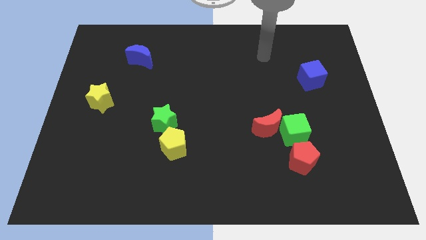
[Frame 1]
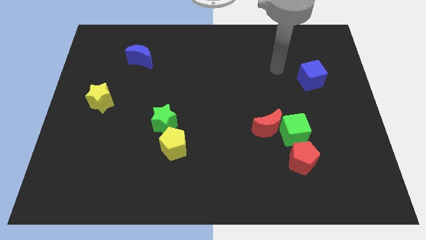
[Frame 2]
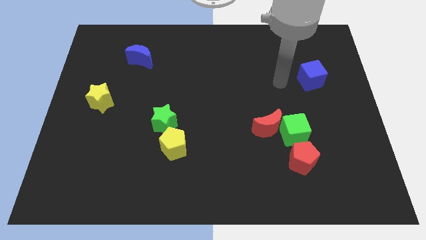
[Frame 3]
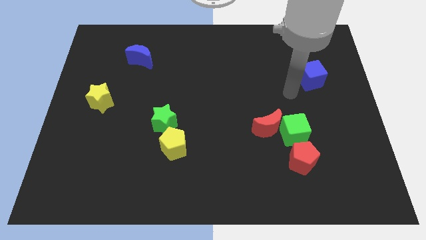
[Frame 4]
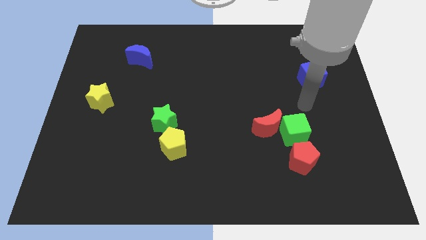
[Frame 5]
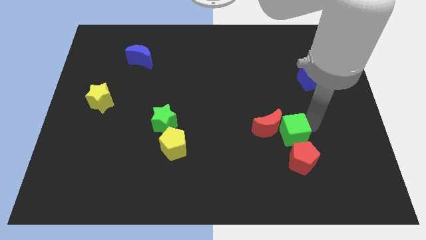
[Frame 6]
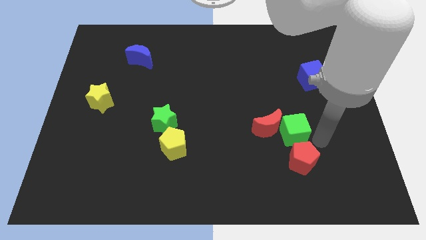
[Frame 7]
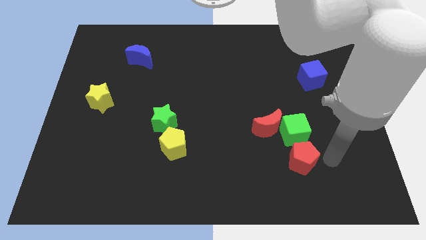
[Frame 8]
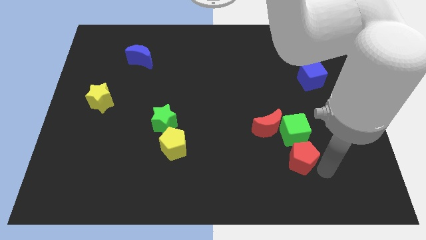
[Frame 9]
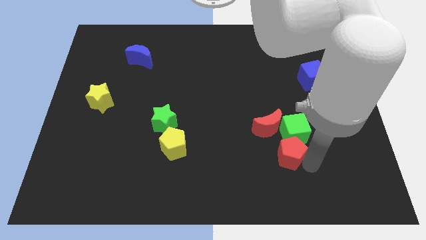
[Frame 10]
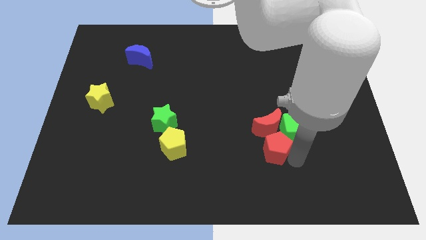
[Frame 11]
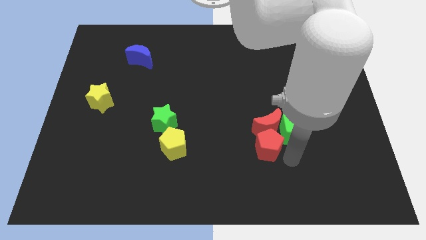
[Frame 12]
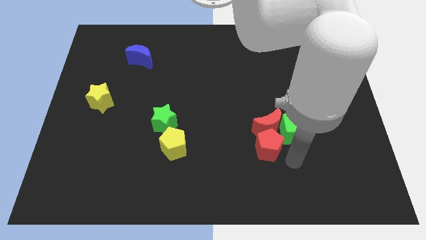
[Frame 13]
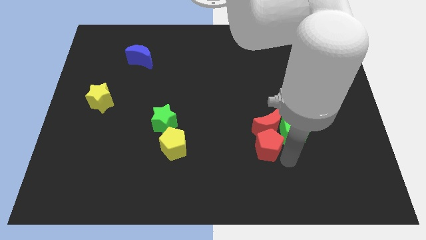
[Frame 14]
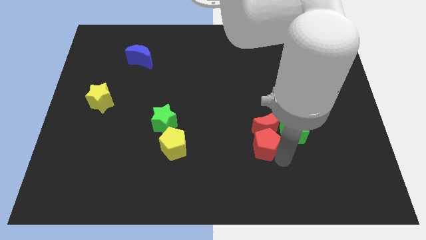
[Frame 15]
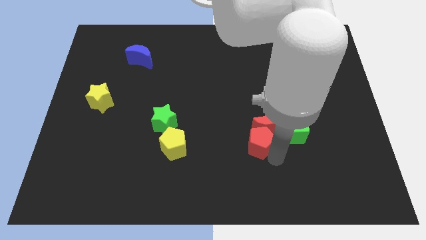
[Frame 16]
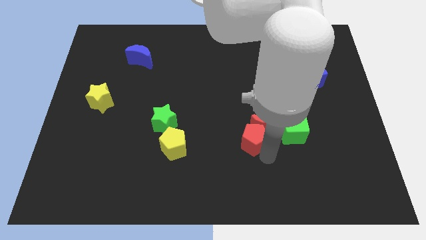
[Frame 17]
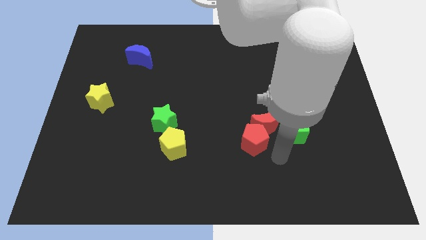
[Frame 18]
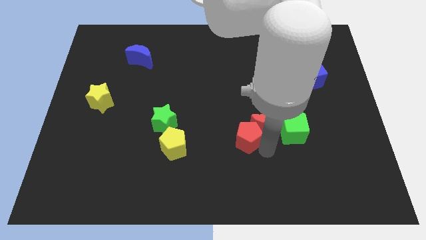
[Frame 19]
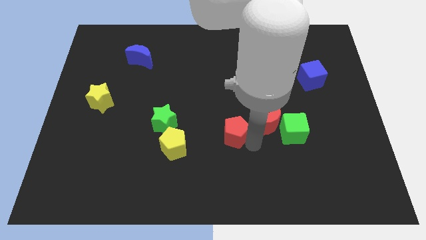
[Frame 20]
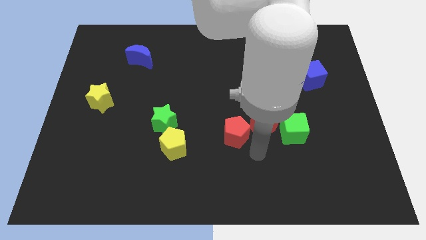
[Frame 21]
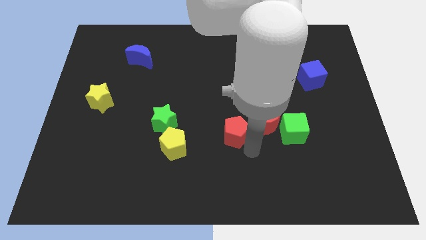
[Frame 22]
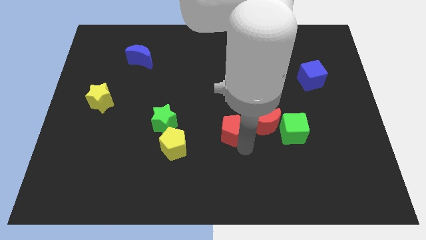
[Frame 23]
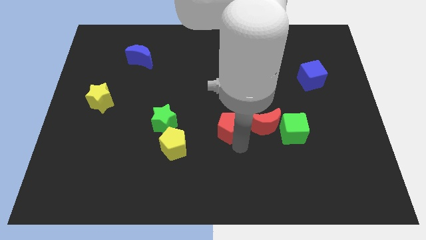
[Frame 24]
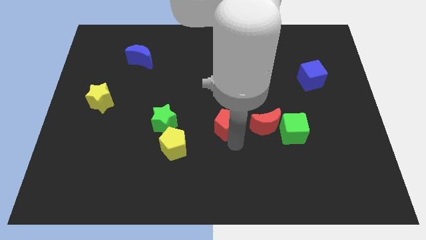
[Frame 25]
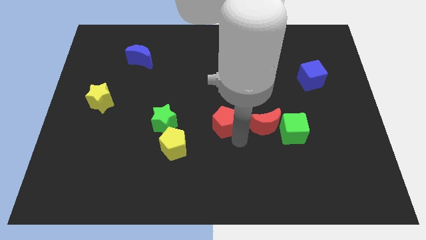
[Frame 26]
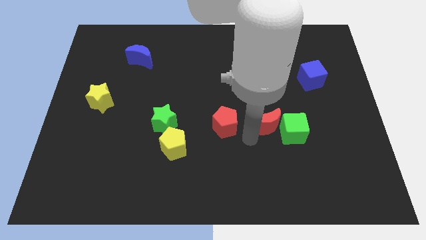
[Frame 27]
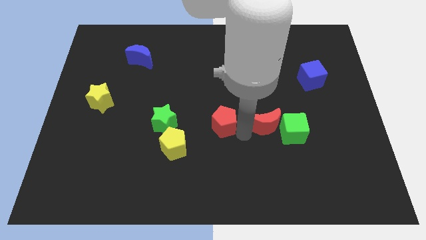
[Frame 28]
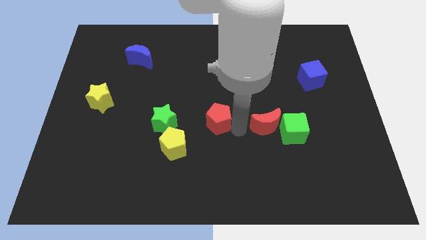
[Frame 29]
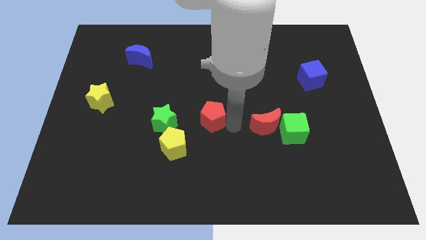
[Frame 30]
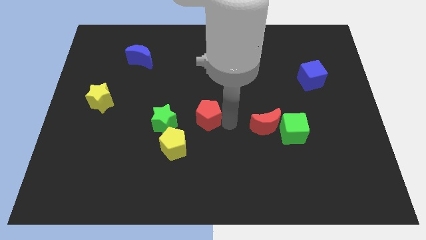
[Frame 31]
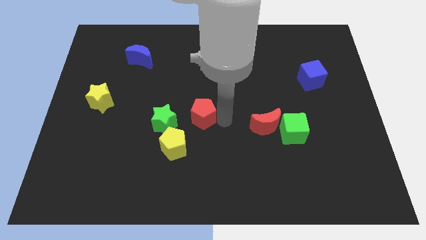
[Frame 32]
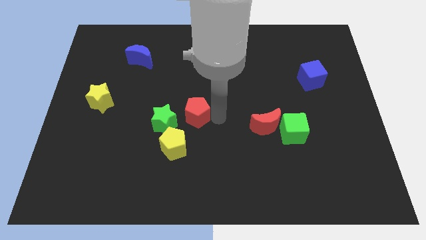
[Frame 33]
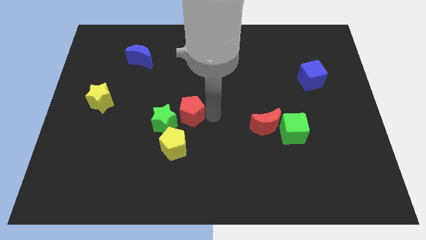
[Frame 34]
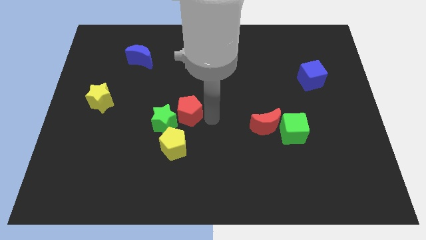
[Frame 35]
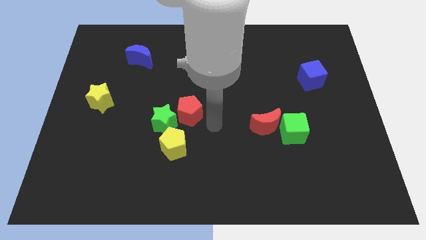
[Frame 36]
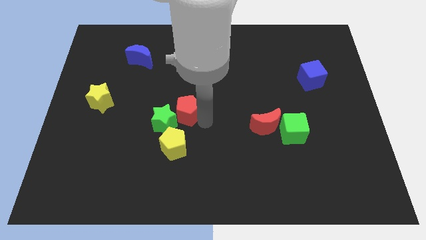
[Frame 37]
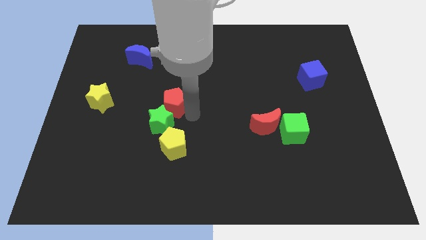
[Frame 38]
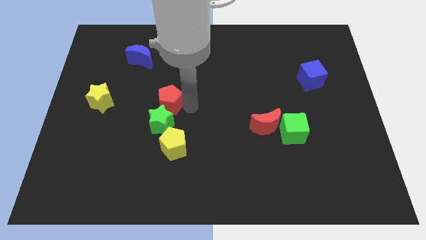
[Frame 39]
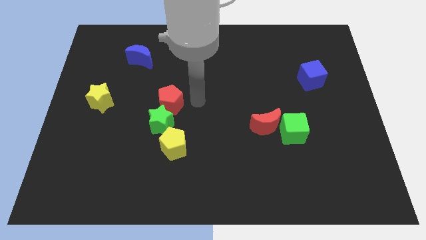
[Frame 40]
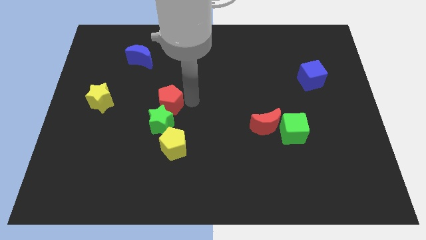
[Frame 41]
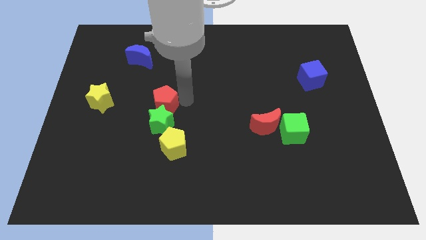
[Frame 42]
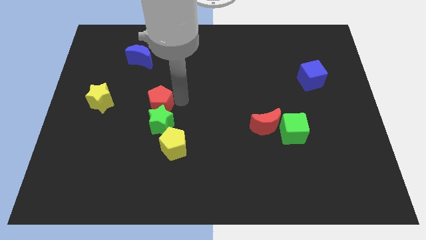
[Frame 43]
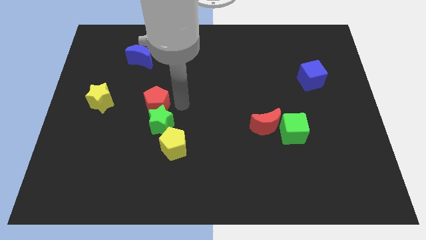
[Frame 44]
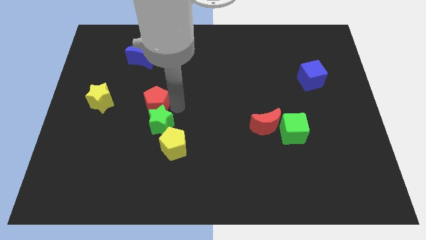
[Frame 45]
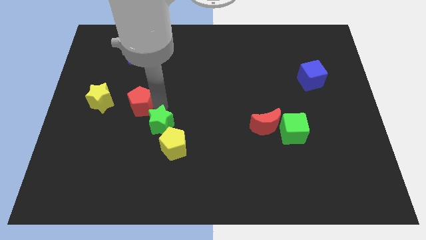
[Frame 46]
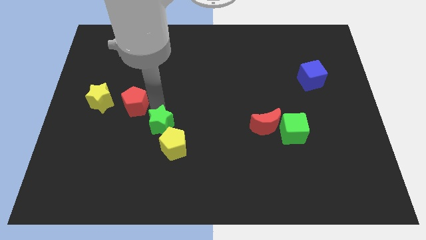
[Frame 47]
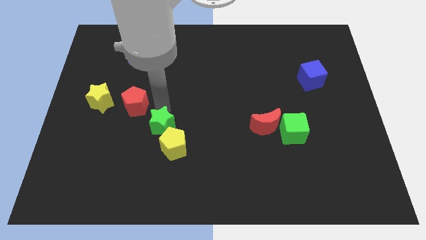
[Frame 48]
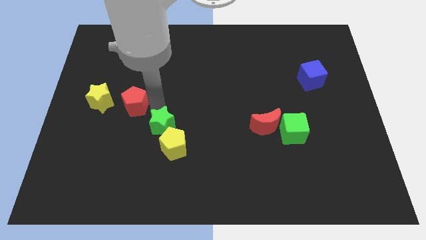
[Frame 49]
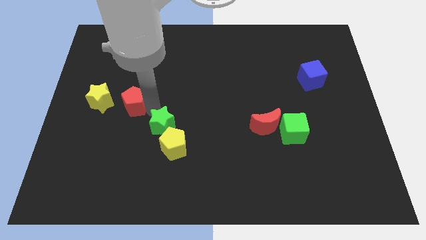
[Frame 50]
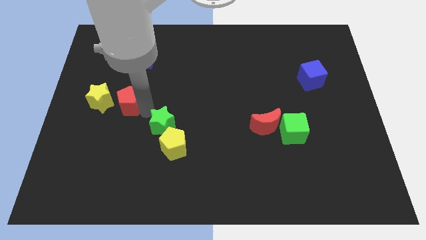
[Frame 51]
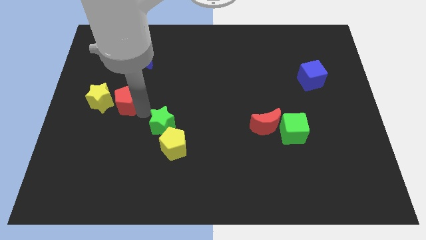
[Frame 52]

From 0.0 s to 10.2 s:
slide the red pentagon next to the yellow star

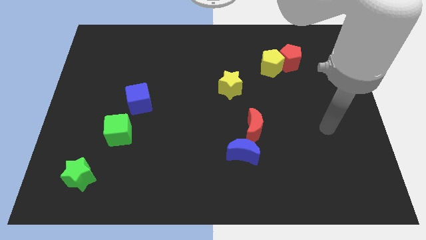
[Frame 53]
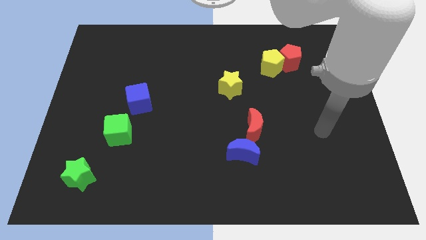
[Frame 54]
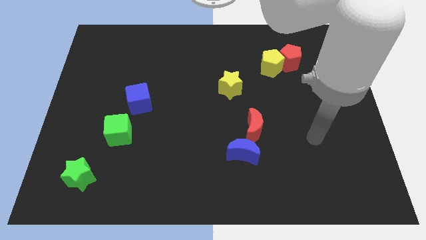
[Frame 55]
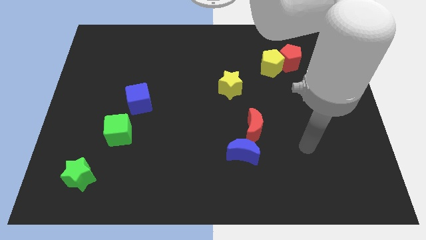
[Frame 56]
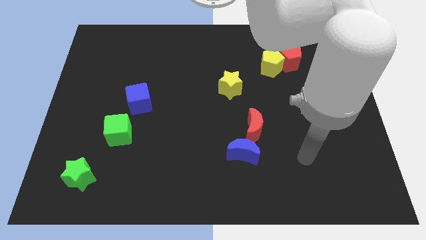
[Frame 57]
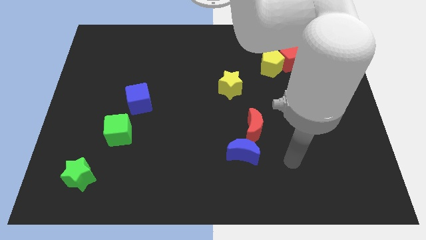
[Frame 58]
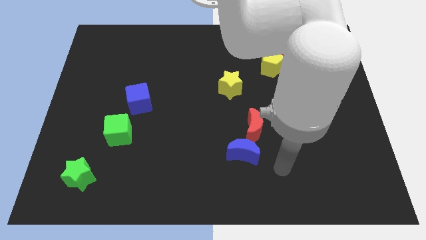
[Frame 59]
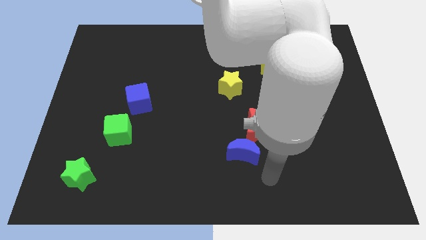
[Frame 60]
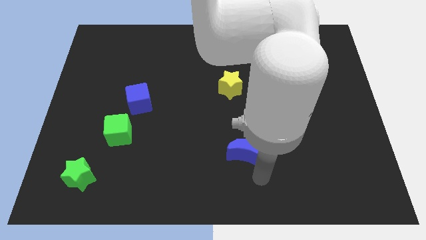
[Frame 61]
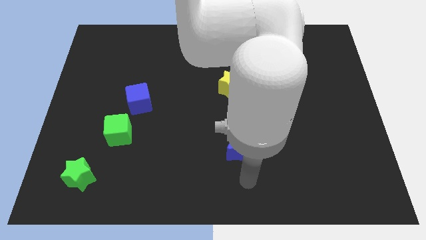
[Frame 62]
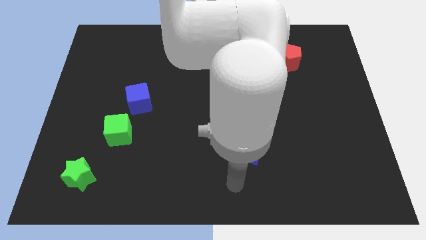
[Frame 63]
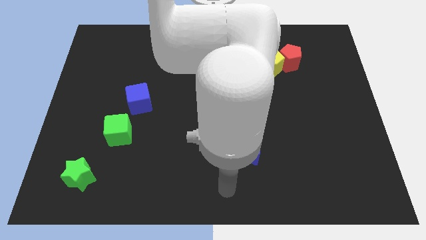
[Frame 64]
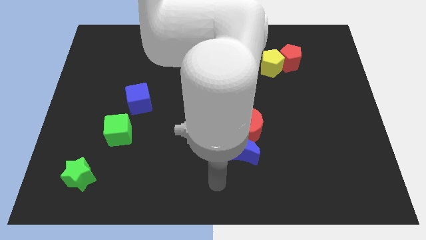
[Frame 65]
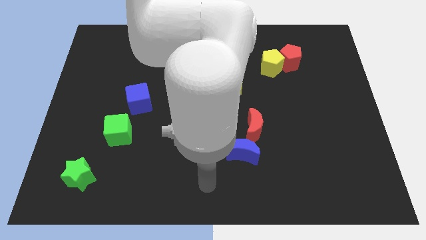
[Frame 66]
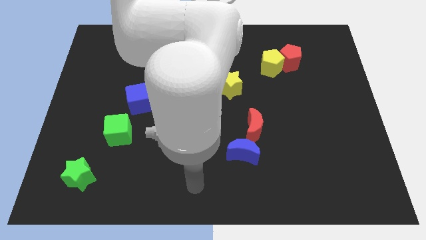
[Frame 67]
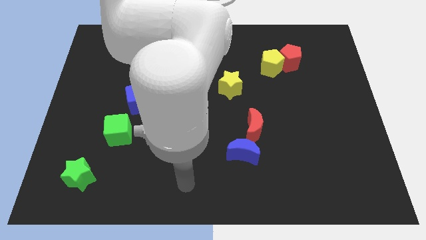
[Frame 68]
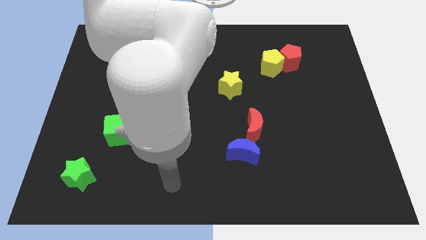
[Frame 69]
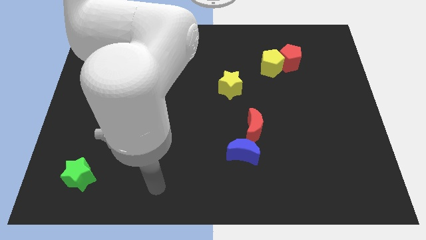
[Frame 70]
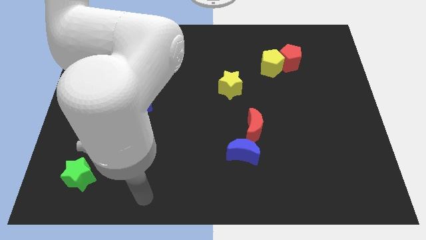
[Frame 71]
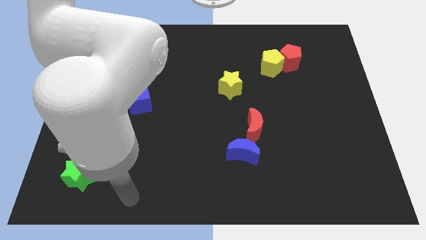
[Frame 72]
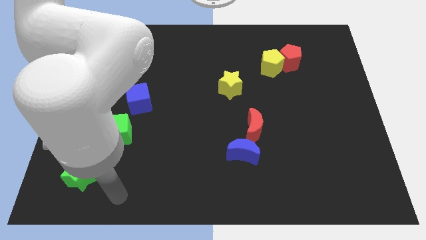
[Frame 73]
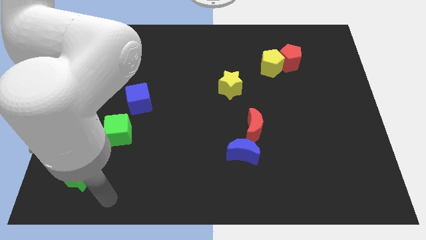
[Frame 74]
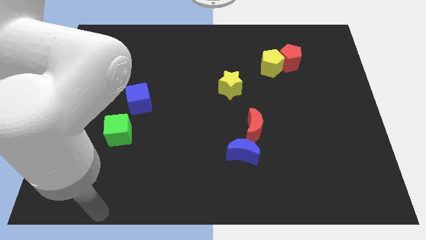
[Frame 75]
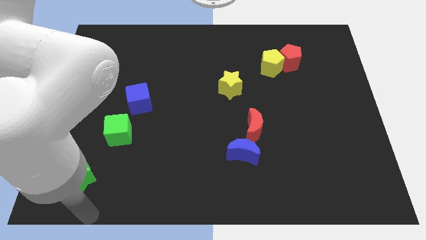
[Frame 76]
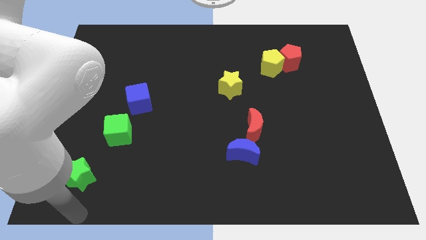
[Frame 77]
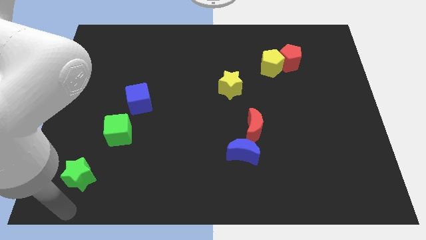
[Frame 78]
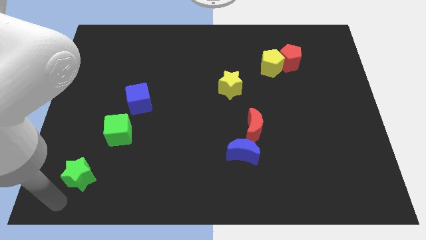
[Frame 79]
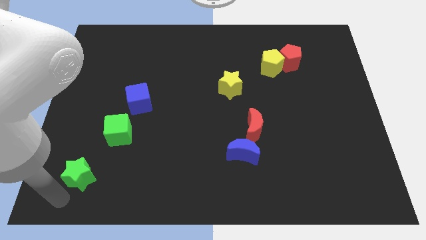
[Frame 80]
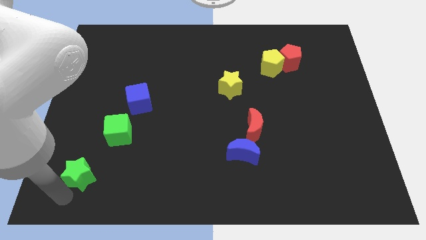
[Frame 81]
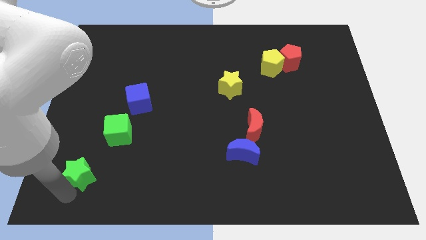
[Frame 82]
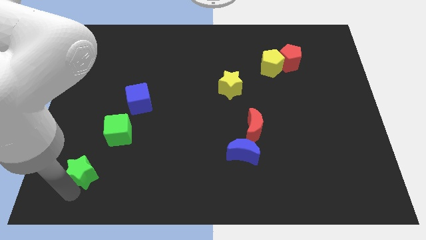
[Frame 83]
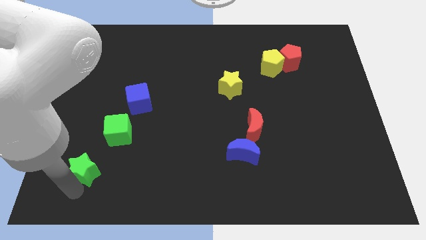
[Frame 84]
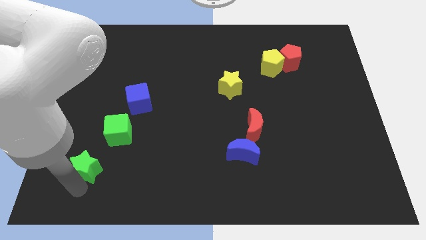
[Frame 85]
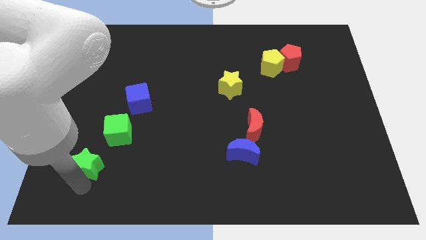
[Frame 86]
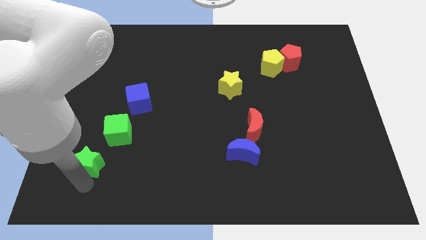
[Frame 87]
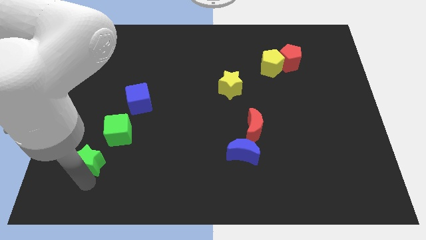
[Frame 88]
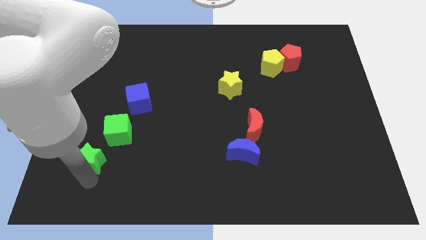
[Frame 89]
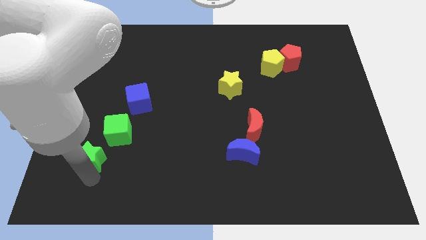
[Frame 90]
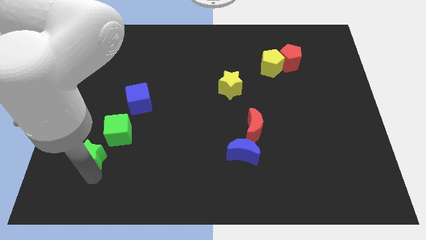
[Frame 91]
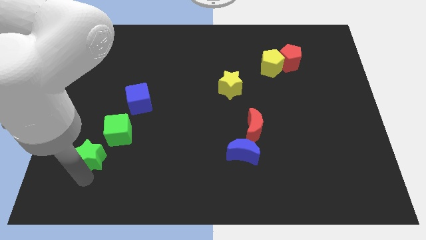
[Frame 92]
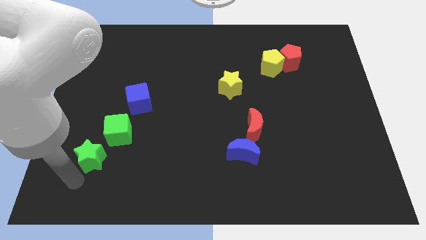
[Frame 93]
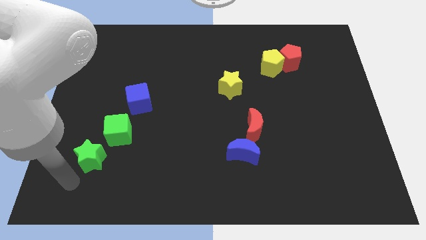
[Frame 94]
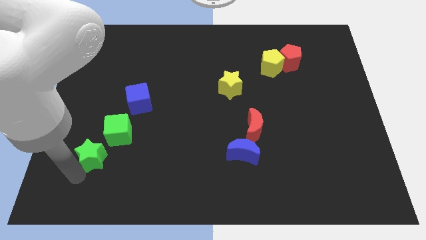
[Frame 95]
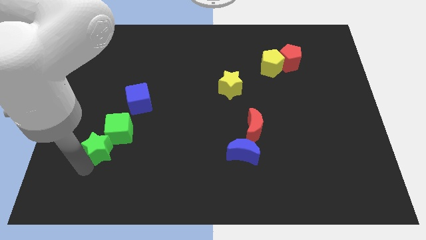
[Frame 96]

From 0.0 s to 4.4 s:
put the green star next to the green cube
